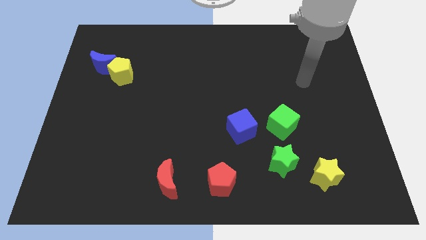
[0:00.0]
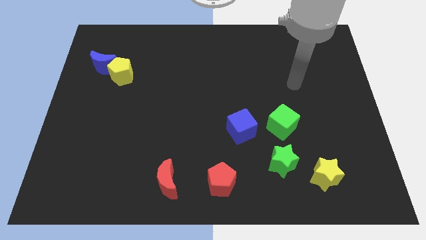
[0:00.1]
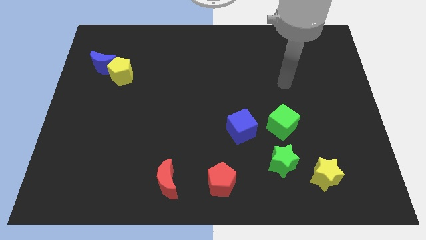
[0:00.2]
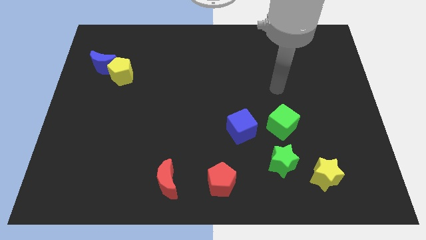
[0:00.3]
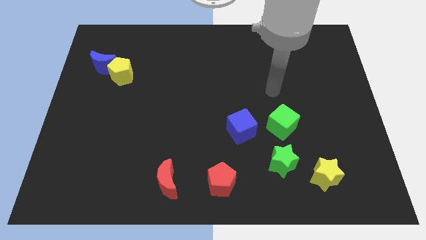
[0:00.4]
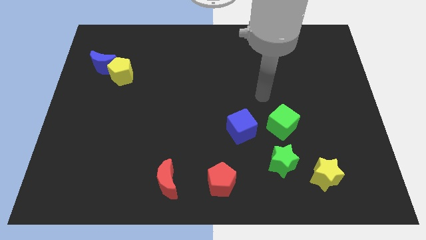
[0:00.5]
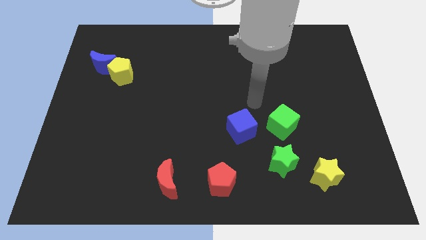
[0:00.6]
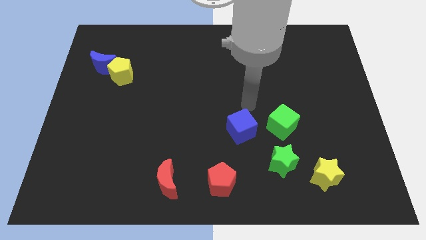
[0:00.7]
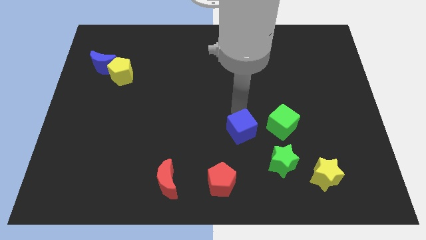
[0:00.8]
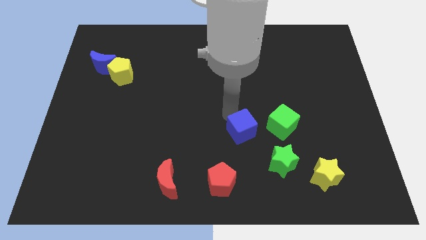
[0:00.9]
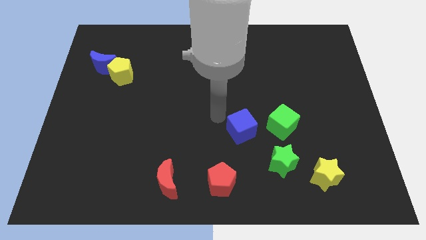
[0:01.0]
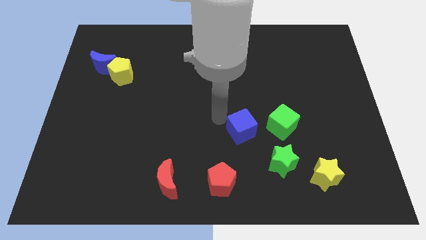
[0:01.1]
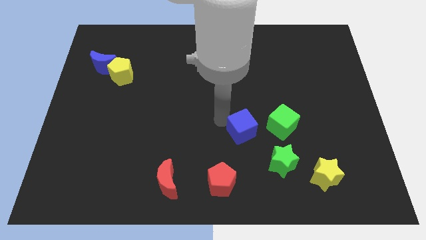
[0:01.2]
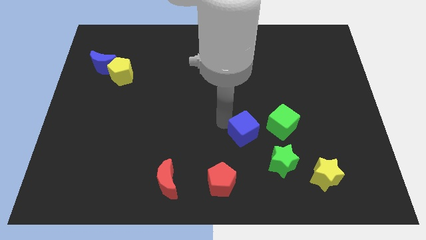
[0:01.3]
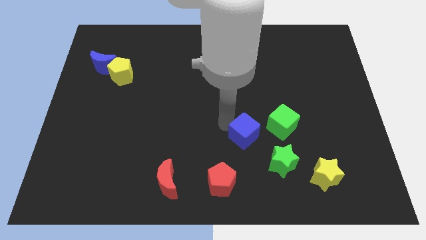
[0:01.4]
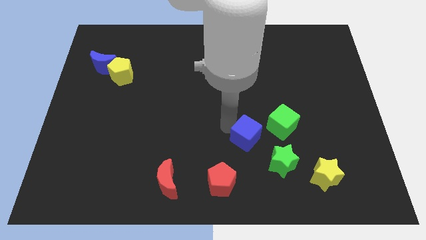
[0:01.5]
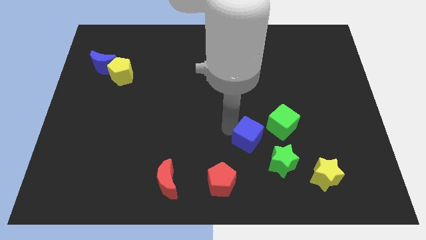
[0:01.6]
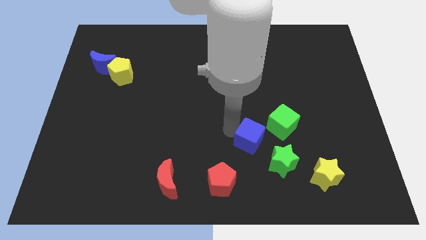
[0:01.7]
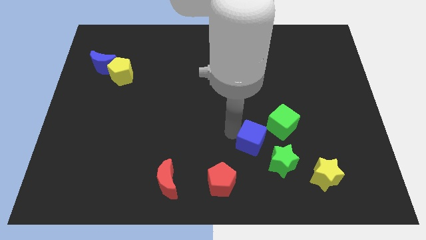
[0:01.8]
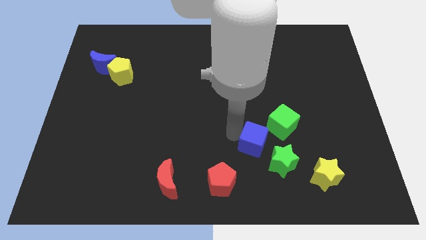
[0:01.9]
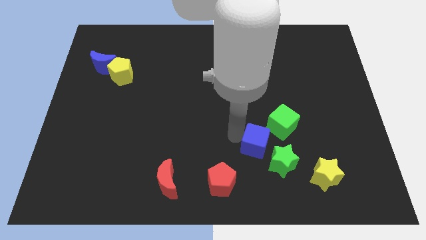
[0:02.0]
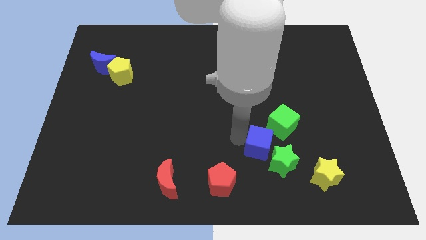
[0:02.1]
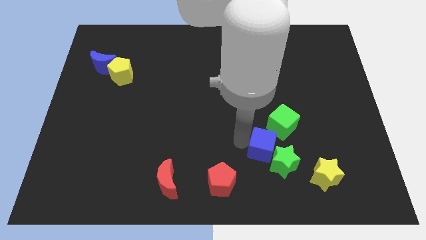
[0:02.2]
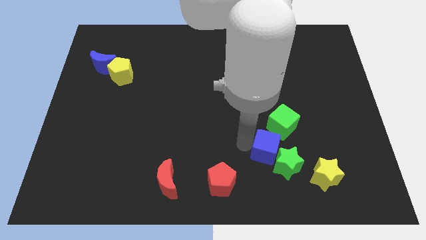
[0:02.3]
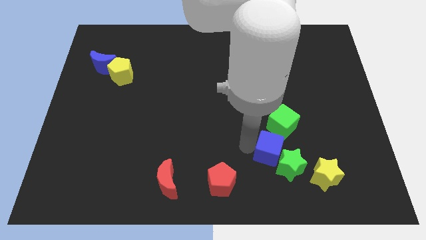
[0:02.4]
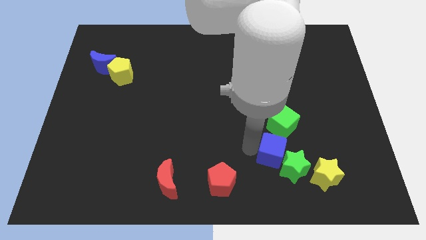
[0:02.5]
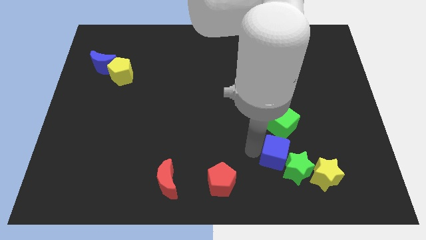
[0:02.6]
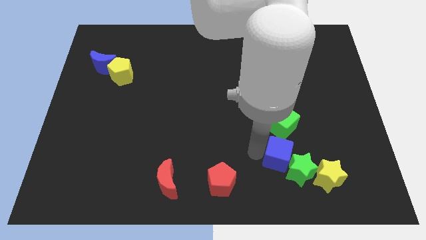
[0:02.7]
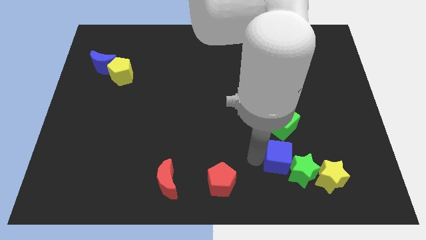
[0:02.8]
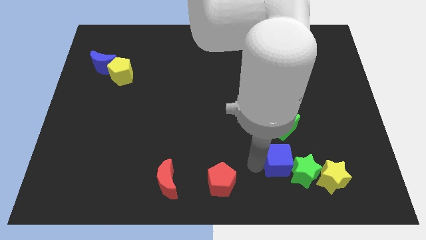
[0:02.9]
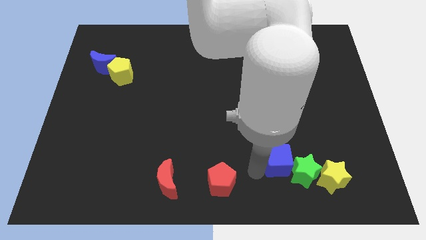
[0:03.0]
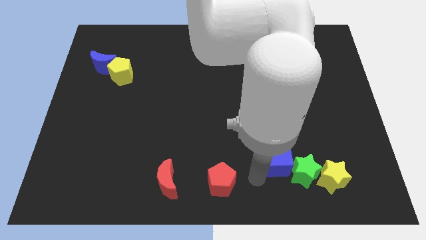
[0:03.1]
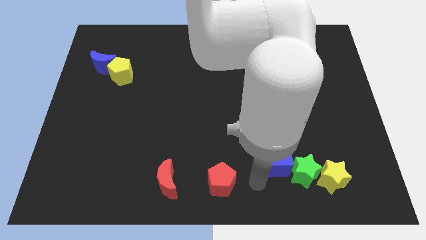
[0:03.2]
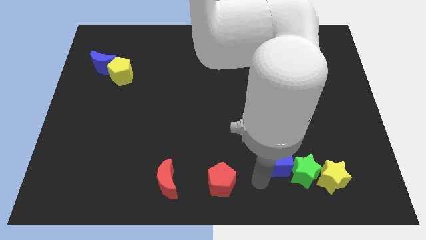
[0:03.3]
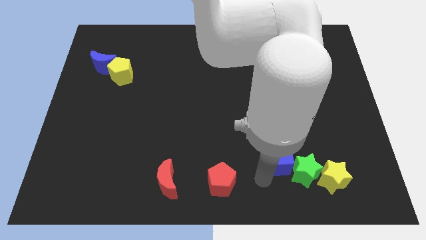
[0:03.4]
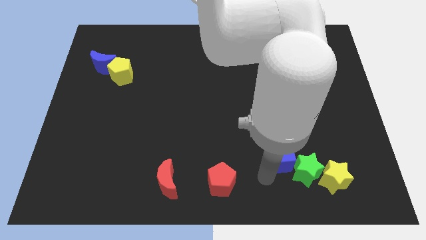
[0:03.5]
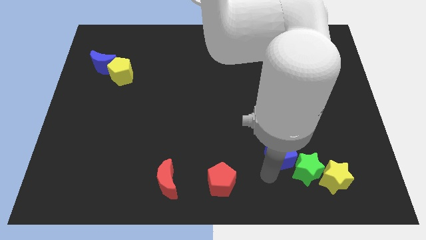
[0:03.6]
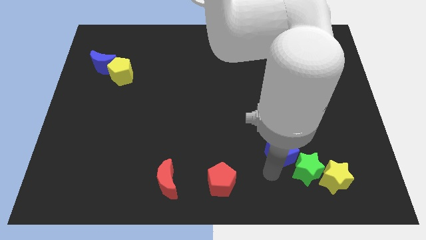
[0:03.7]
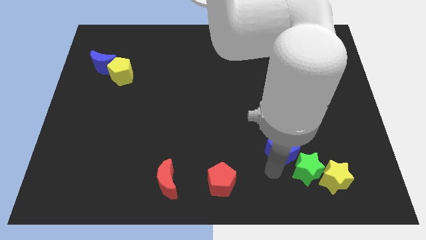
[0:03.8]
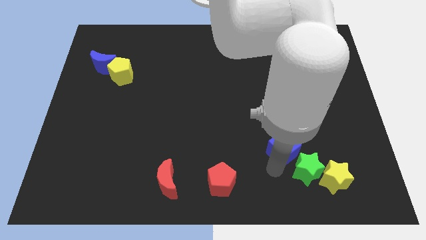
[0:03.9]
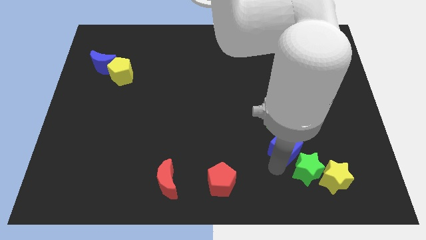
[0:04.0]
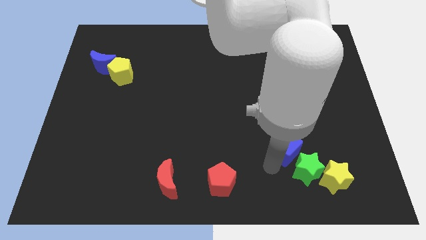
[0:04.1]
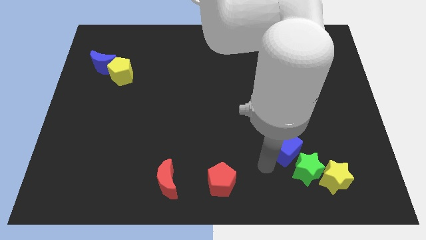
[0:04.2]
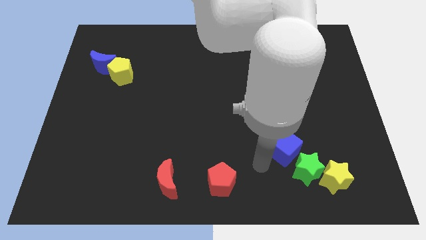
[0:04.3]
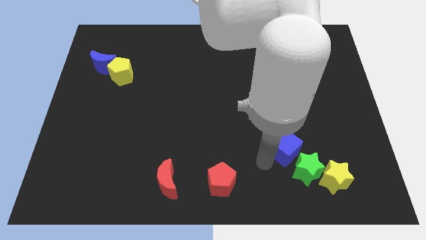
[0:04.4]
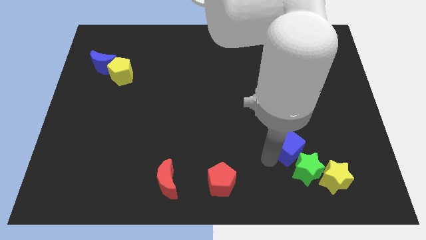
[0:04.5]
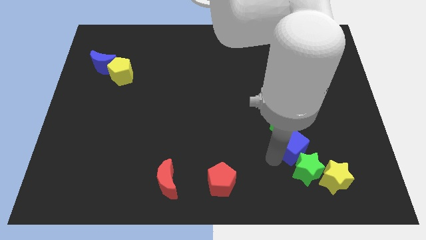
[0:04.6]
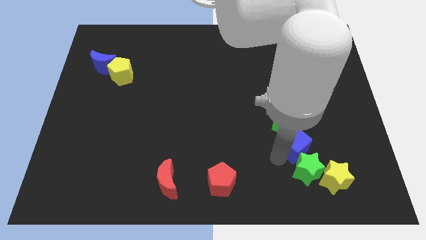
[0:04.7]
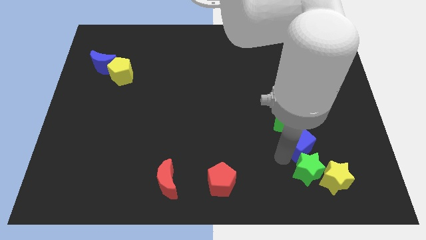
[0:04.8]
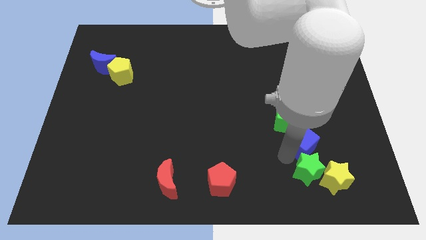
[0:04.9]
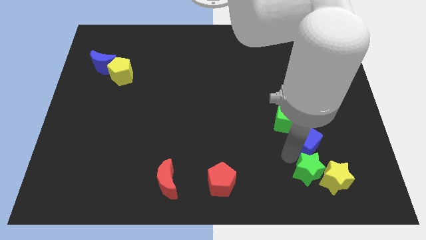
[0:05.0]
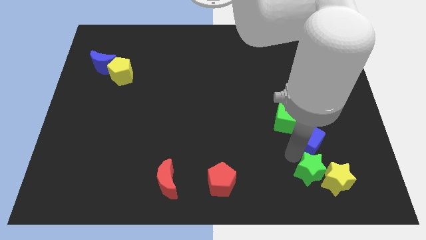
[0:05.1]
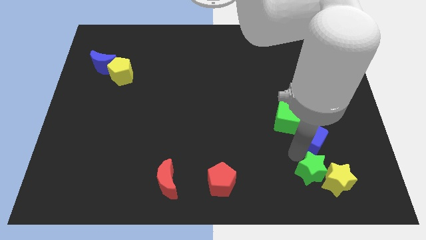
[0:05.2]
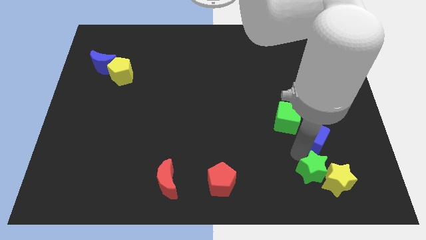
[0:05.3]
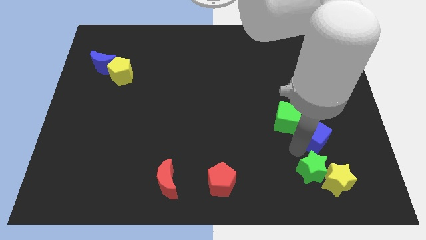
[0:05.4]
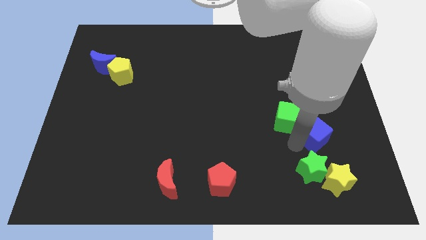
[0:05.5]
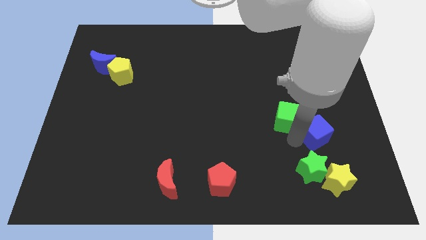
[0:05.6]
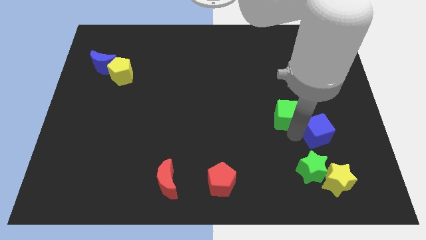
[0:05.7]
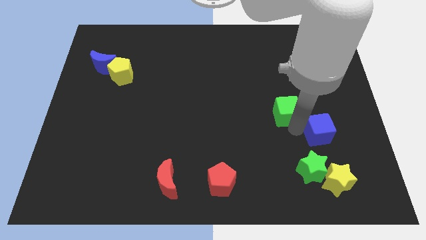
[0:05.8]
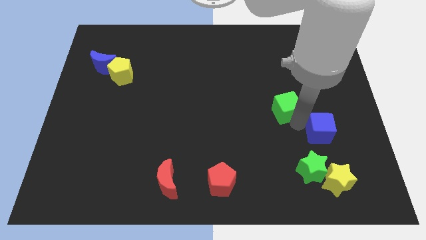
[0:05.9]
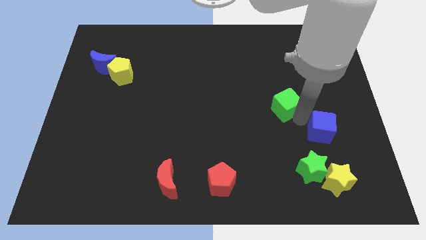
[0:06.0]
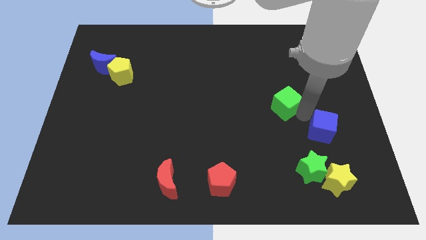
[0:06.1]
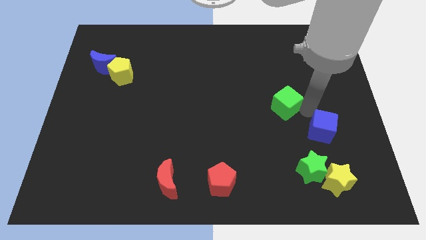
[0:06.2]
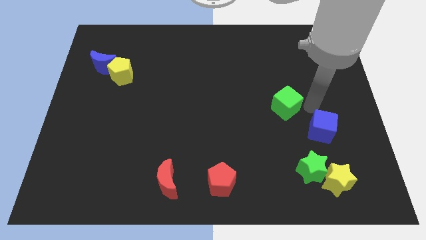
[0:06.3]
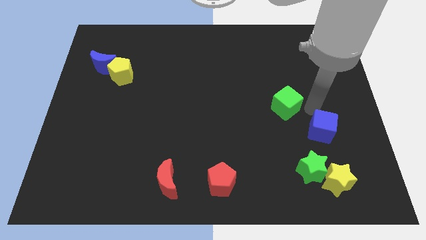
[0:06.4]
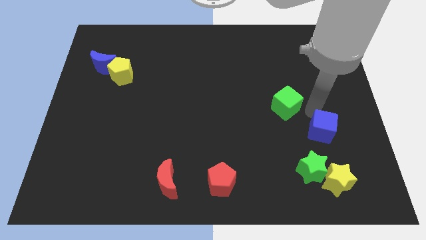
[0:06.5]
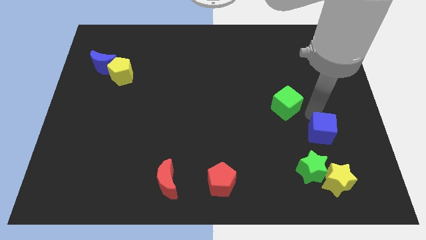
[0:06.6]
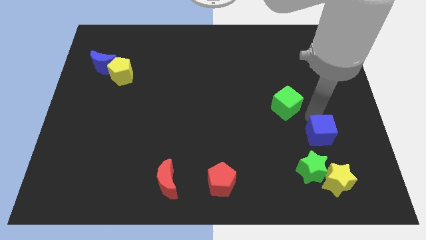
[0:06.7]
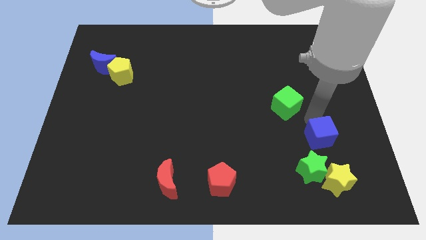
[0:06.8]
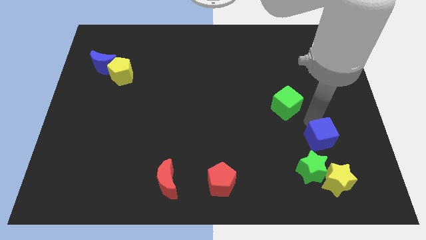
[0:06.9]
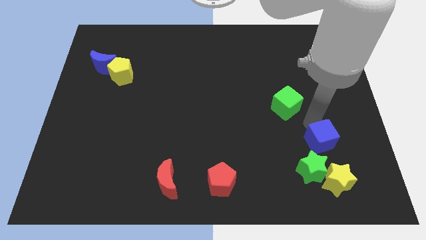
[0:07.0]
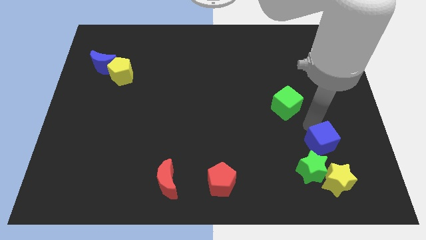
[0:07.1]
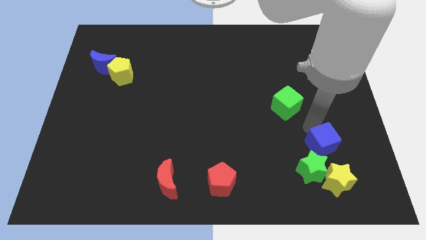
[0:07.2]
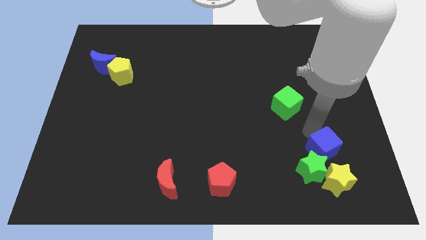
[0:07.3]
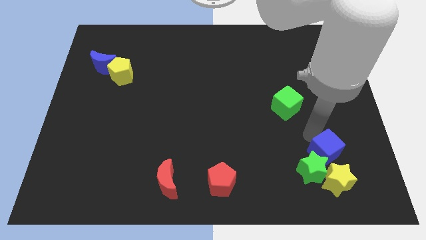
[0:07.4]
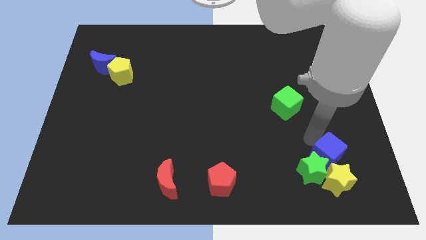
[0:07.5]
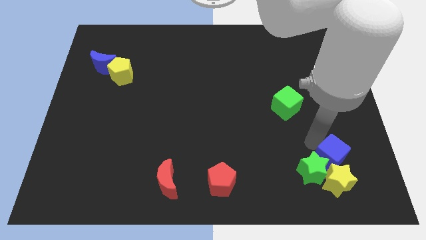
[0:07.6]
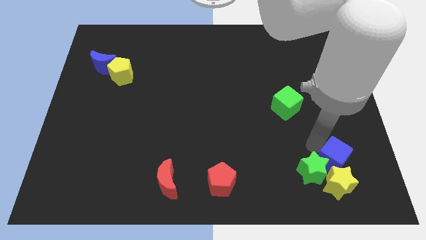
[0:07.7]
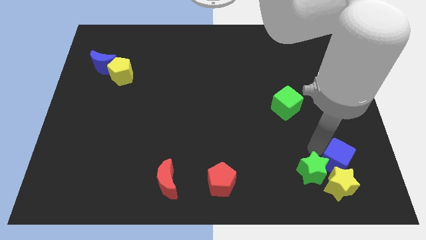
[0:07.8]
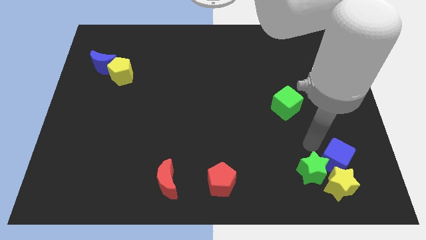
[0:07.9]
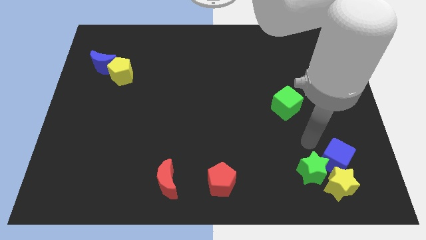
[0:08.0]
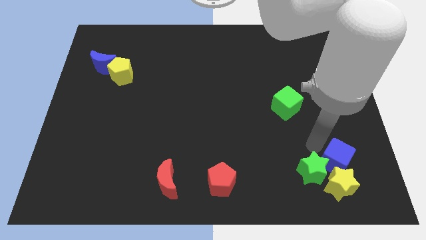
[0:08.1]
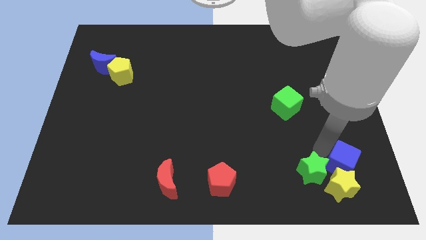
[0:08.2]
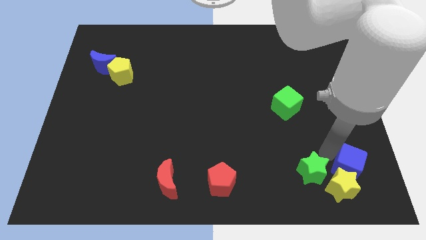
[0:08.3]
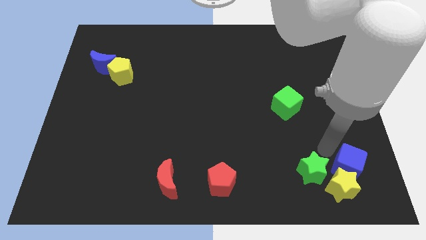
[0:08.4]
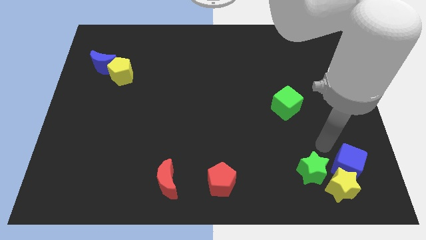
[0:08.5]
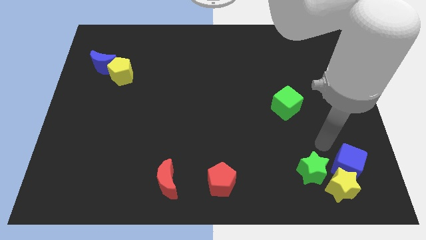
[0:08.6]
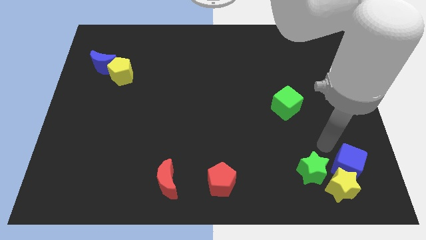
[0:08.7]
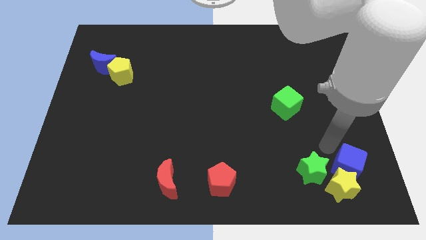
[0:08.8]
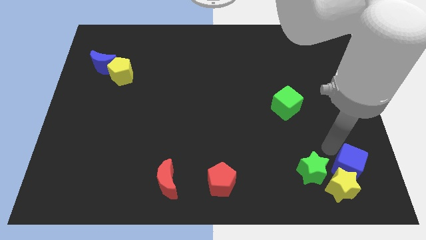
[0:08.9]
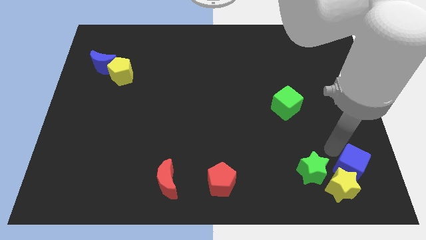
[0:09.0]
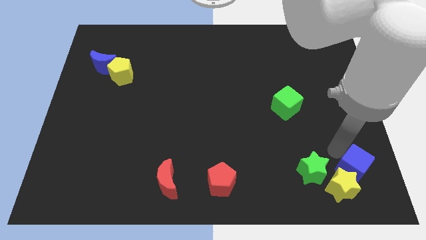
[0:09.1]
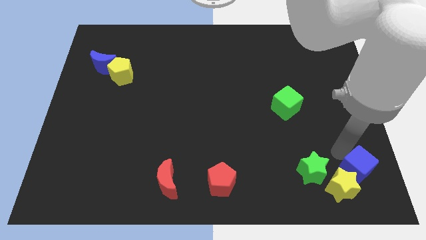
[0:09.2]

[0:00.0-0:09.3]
put the blue cube to the bottom right
